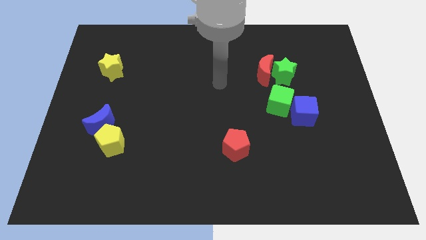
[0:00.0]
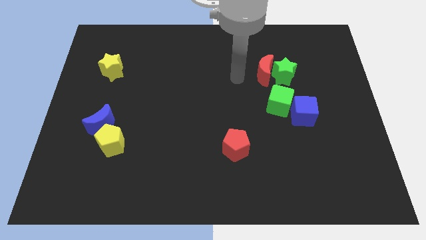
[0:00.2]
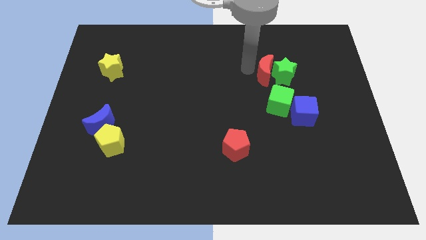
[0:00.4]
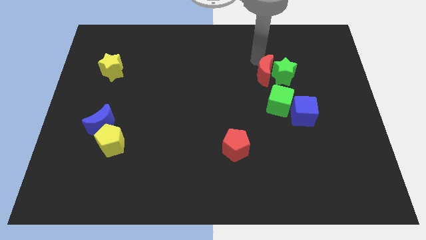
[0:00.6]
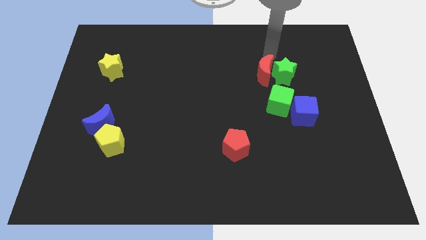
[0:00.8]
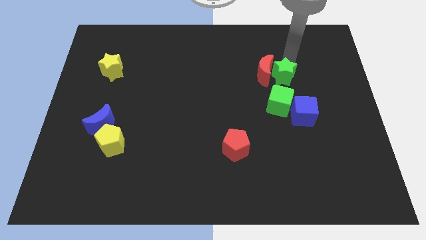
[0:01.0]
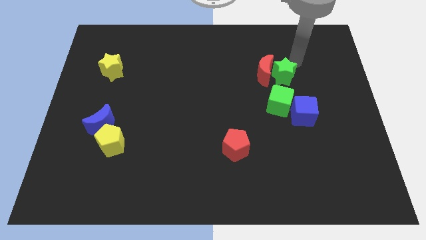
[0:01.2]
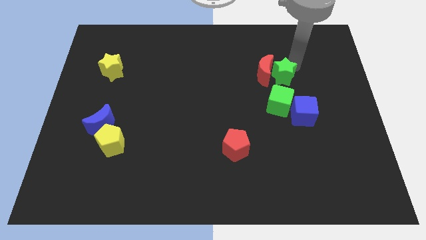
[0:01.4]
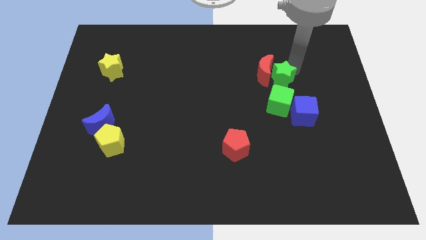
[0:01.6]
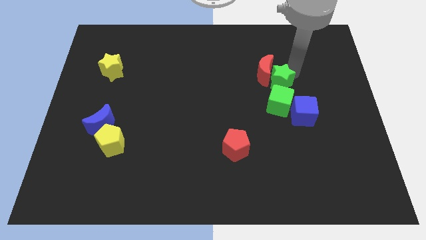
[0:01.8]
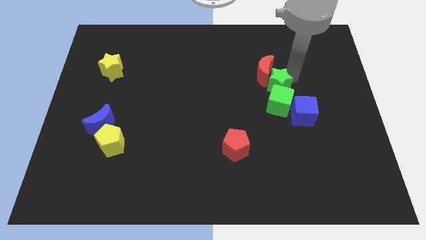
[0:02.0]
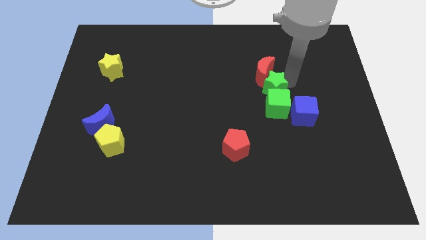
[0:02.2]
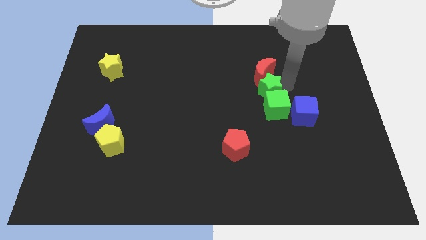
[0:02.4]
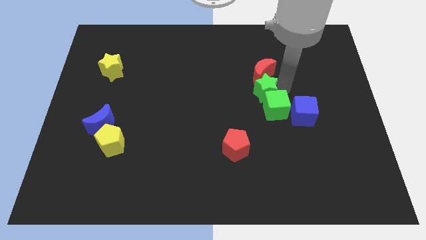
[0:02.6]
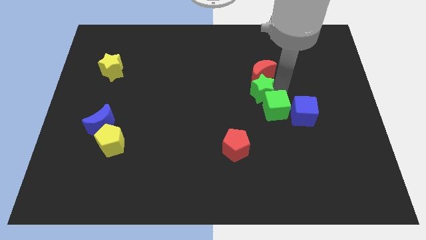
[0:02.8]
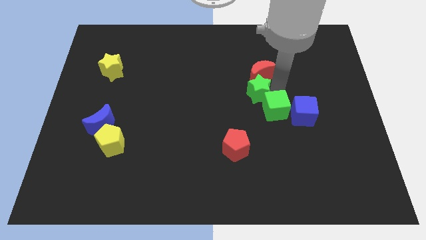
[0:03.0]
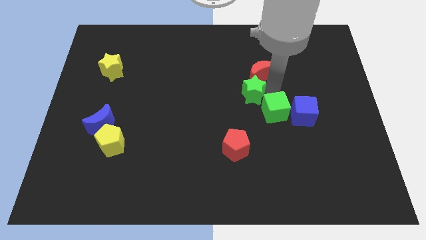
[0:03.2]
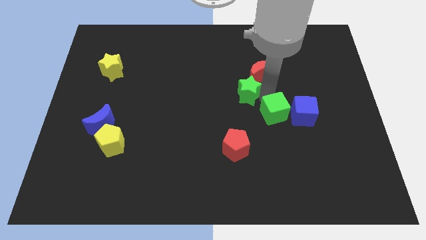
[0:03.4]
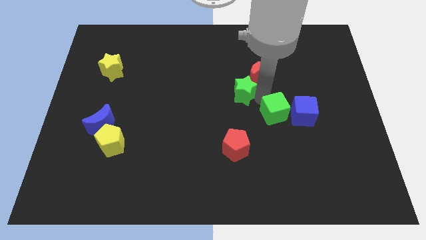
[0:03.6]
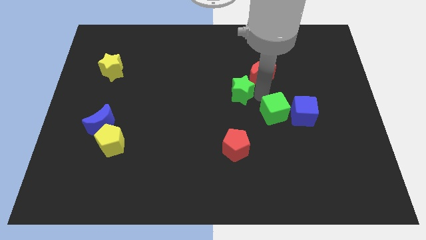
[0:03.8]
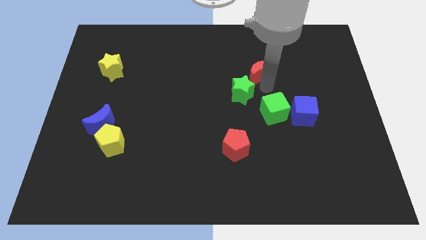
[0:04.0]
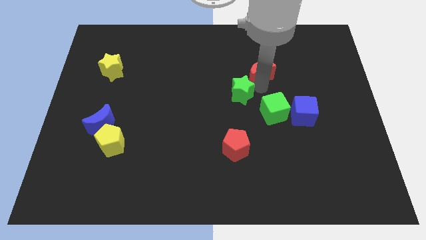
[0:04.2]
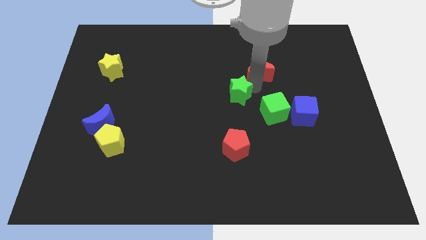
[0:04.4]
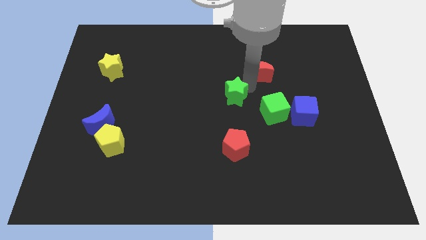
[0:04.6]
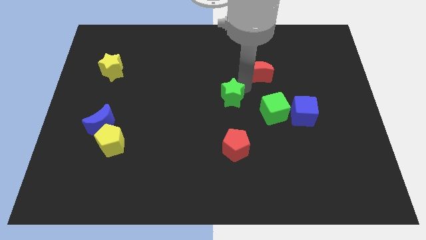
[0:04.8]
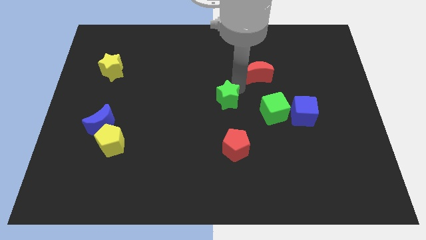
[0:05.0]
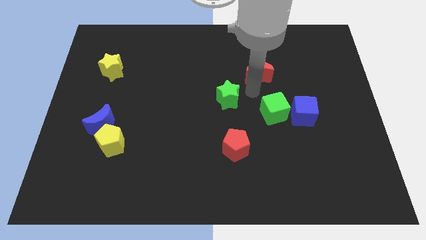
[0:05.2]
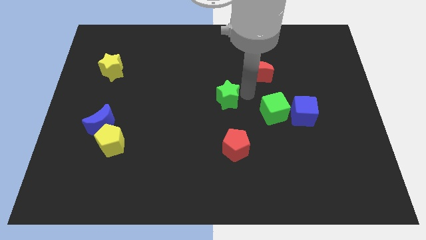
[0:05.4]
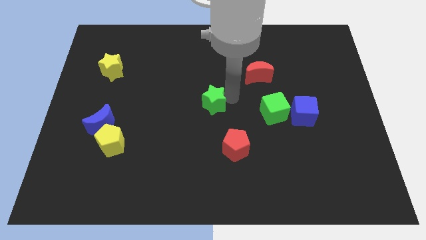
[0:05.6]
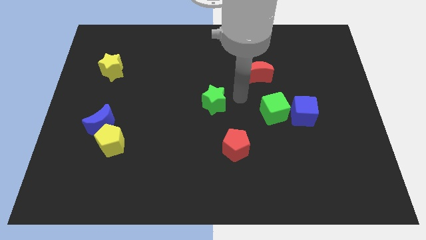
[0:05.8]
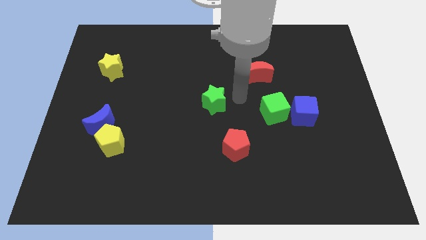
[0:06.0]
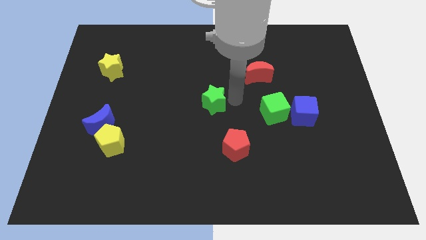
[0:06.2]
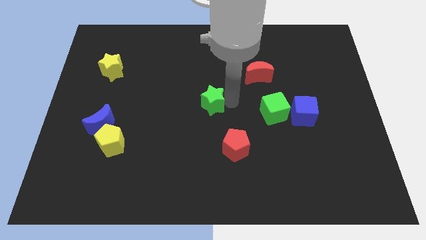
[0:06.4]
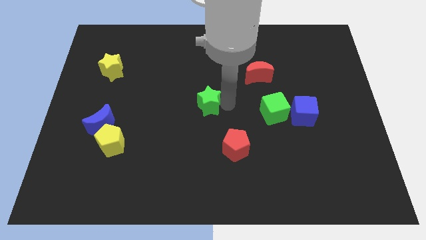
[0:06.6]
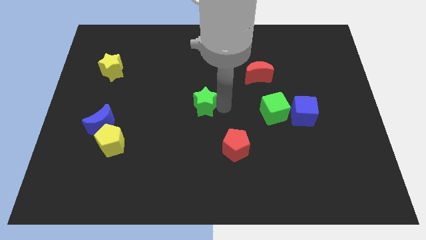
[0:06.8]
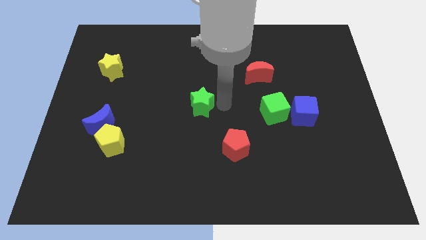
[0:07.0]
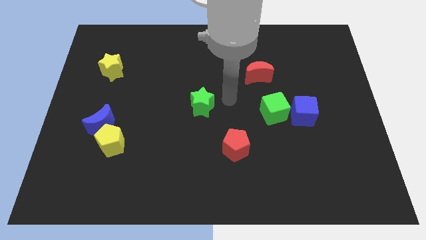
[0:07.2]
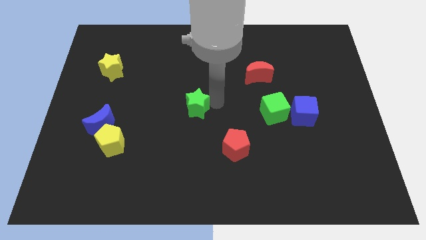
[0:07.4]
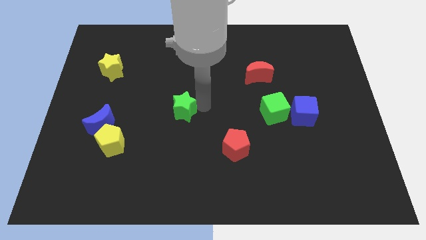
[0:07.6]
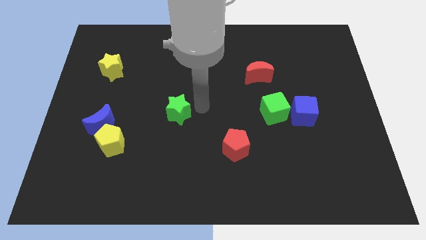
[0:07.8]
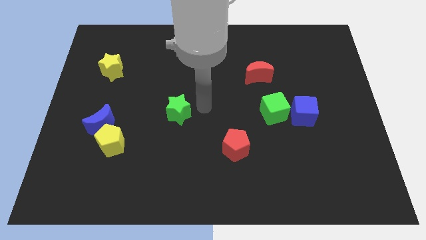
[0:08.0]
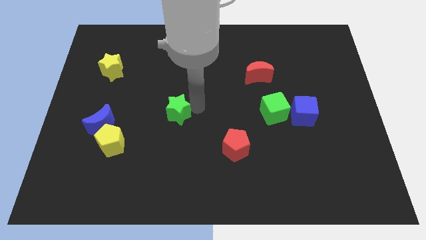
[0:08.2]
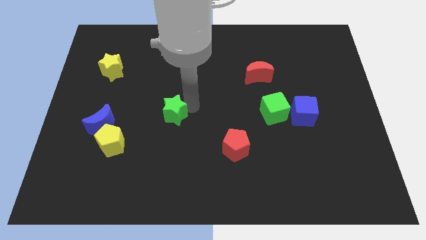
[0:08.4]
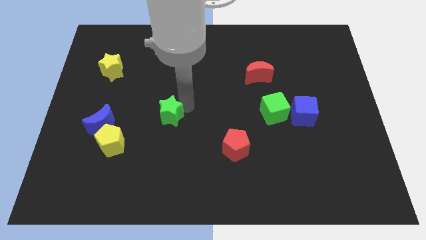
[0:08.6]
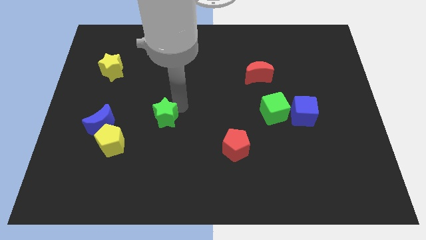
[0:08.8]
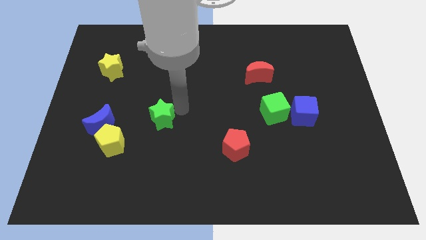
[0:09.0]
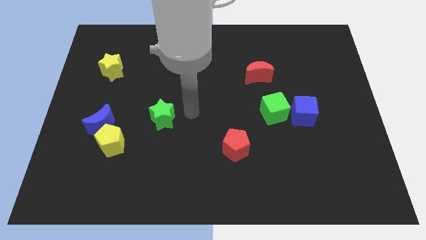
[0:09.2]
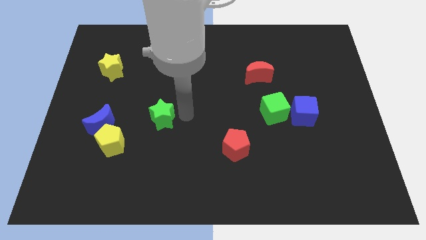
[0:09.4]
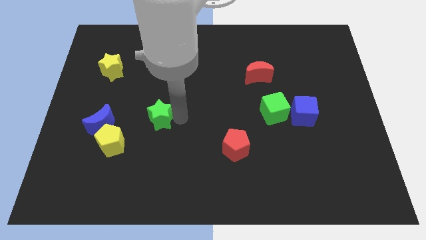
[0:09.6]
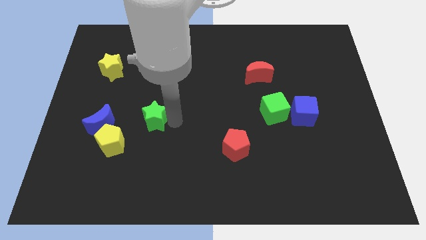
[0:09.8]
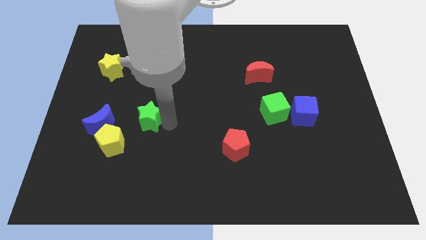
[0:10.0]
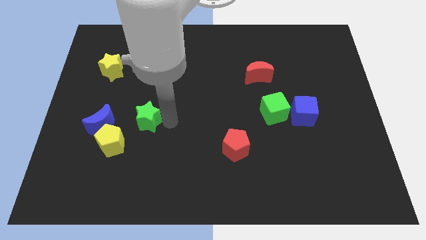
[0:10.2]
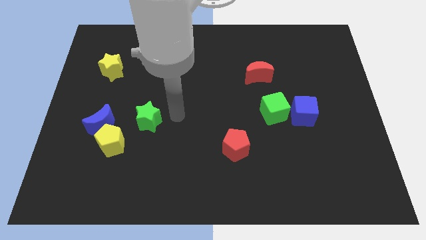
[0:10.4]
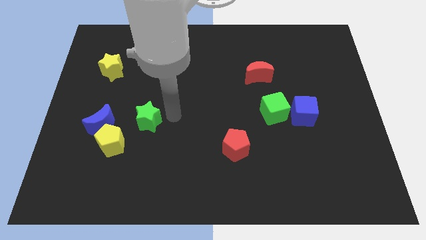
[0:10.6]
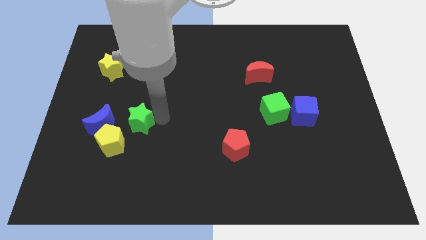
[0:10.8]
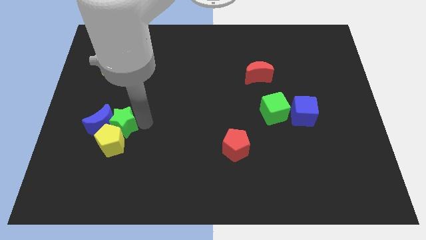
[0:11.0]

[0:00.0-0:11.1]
put the green star to the blue moon

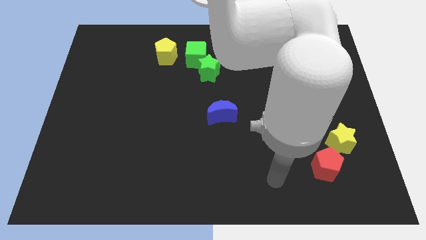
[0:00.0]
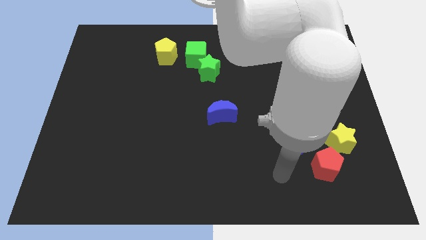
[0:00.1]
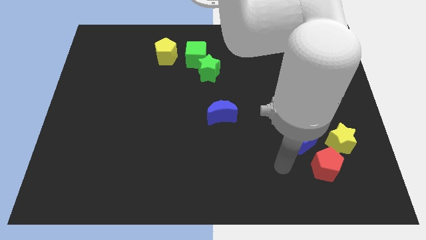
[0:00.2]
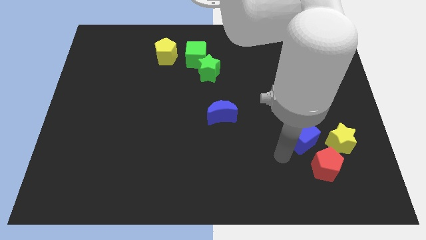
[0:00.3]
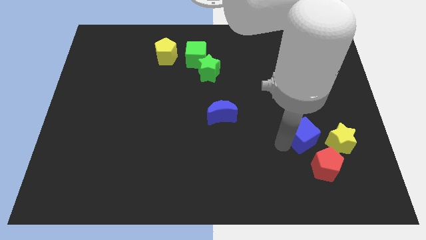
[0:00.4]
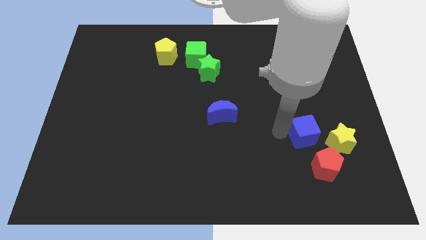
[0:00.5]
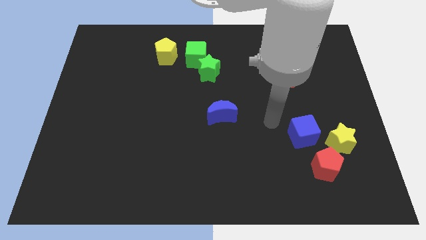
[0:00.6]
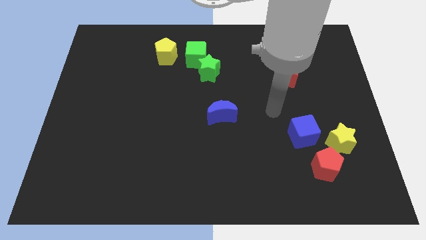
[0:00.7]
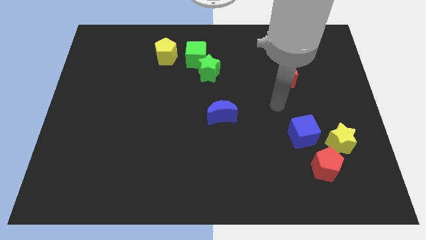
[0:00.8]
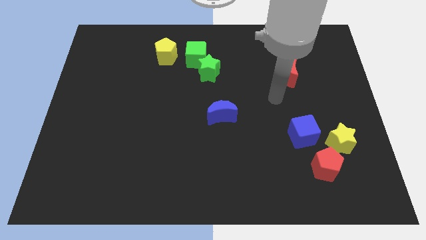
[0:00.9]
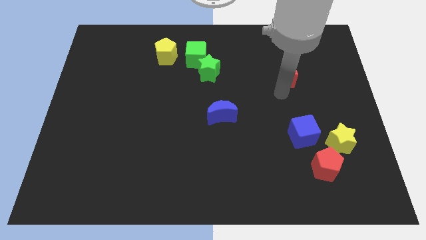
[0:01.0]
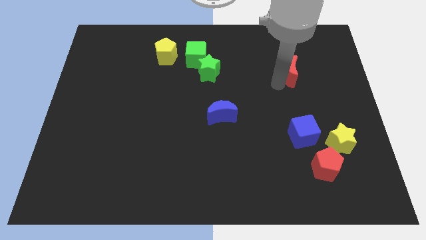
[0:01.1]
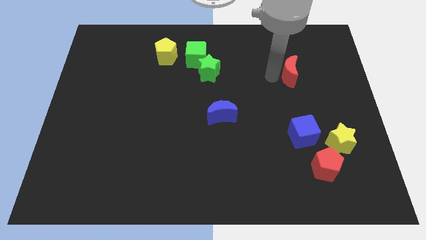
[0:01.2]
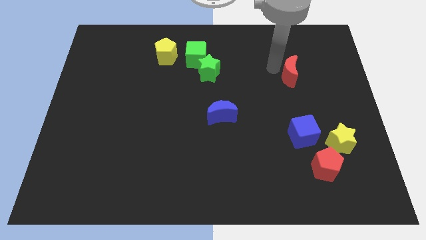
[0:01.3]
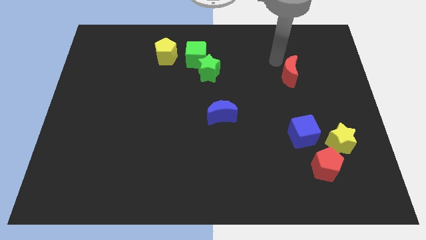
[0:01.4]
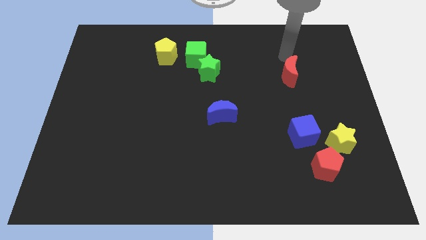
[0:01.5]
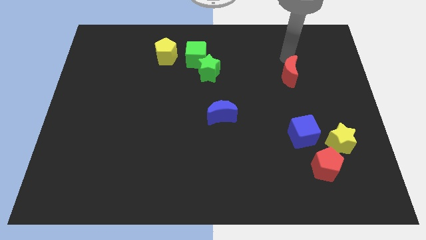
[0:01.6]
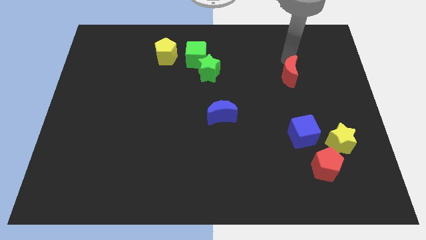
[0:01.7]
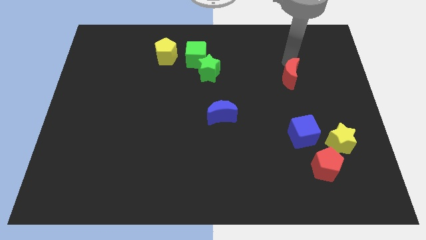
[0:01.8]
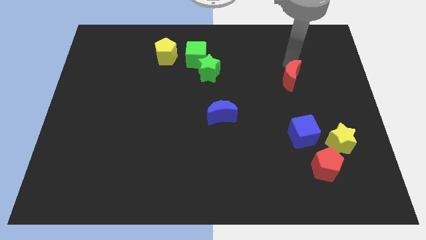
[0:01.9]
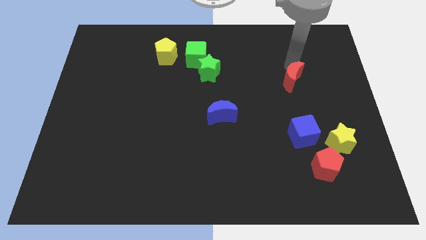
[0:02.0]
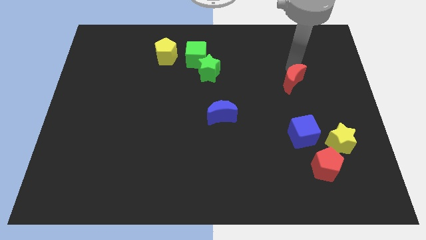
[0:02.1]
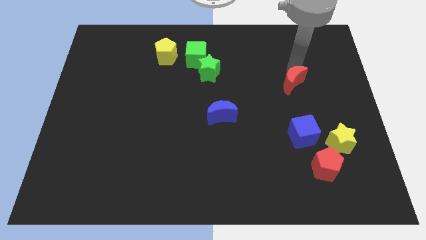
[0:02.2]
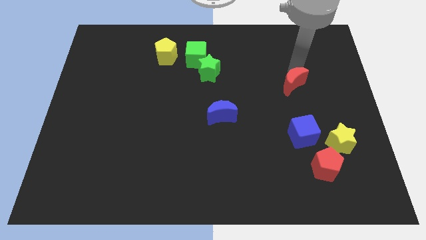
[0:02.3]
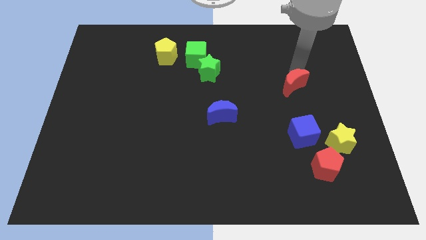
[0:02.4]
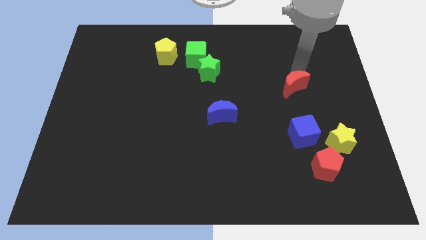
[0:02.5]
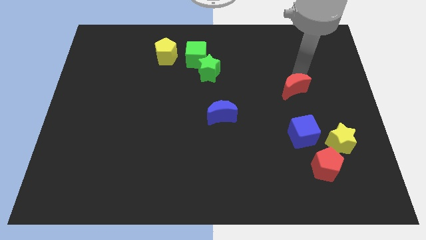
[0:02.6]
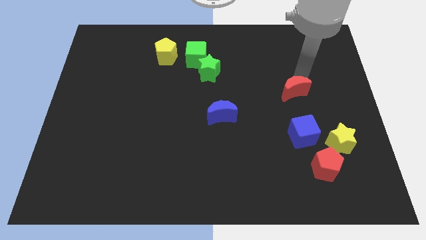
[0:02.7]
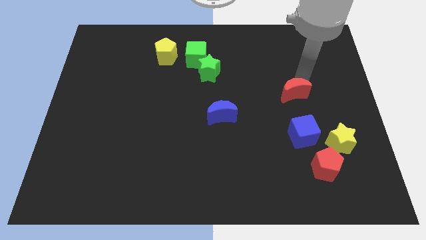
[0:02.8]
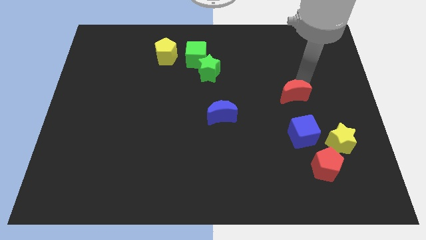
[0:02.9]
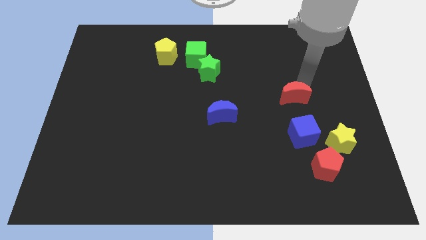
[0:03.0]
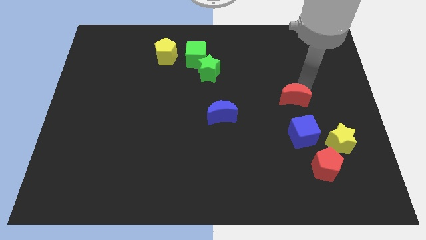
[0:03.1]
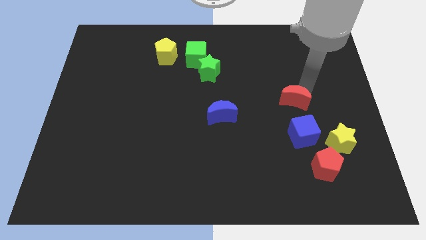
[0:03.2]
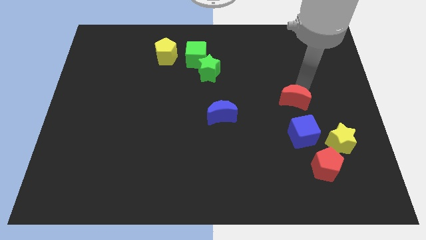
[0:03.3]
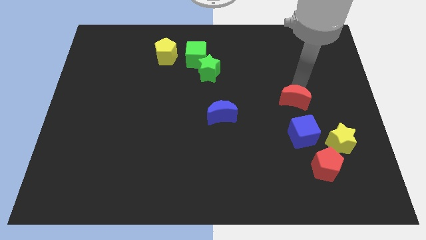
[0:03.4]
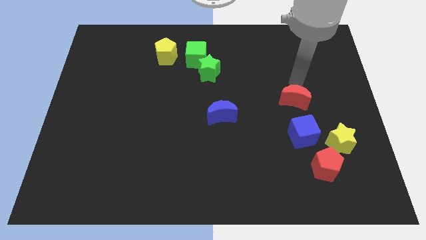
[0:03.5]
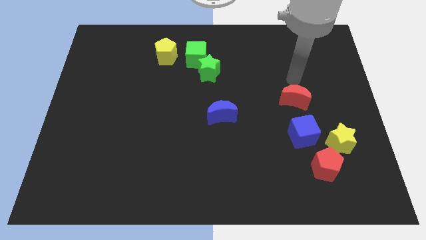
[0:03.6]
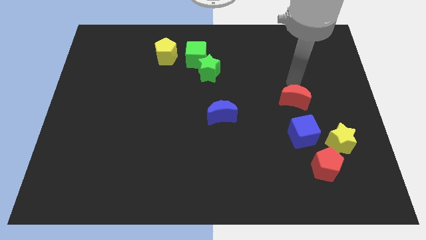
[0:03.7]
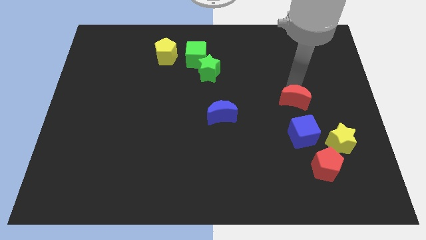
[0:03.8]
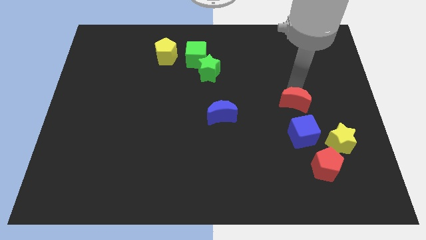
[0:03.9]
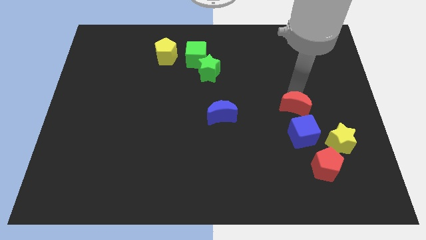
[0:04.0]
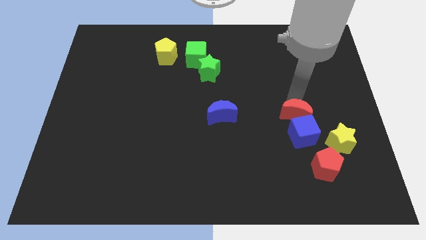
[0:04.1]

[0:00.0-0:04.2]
put the red moon towards the blue cube
